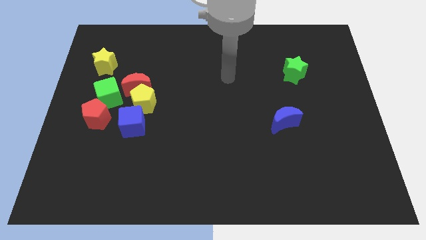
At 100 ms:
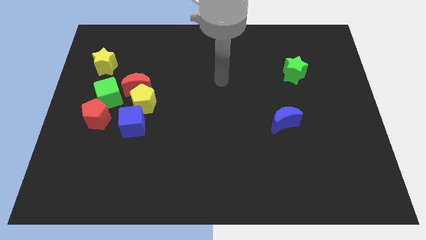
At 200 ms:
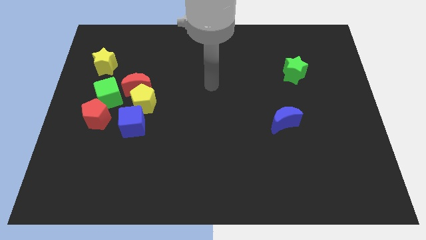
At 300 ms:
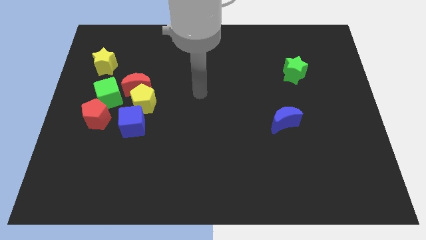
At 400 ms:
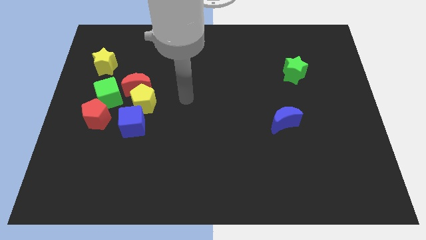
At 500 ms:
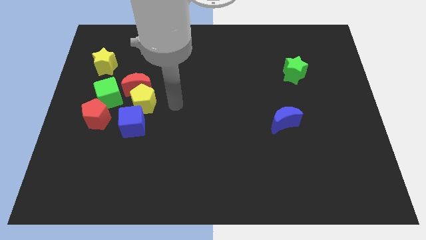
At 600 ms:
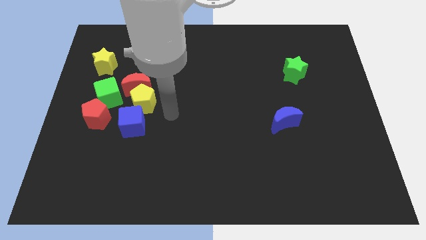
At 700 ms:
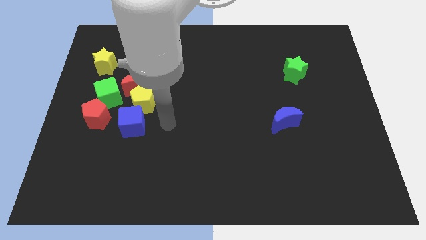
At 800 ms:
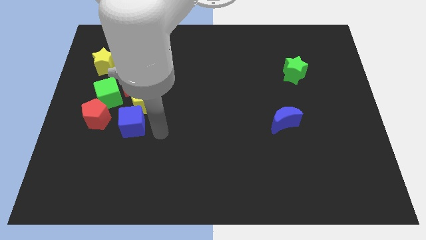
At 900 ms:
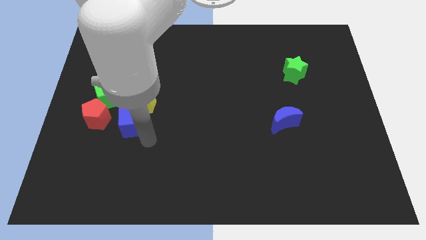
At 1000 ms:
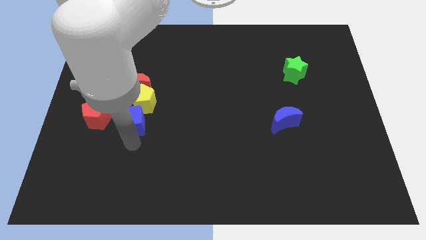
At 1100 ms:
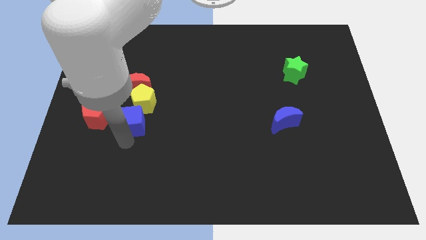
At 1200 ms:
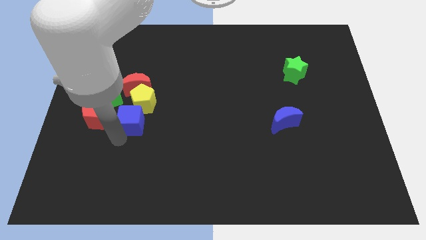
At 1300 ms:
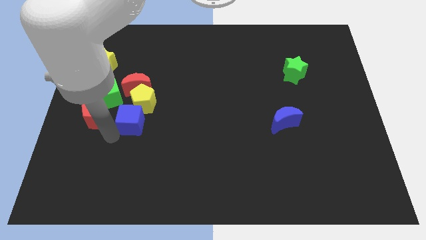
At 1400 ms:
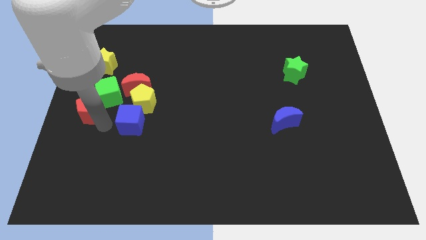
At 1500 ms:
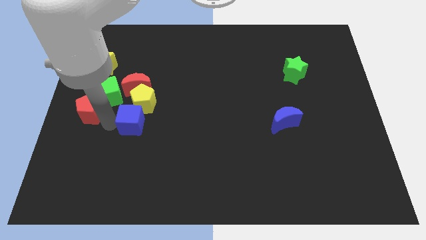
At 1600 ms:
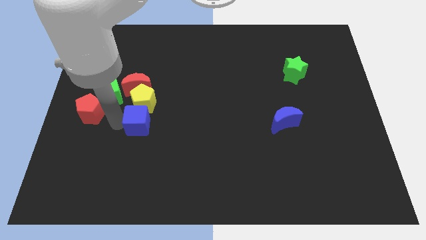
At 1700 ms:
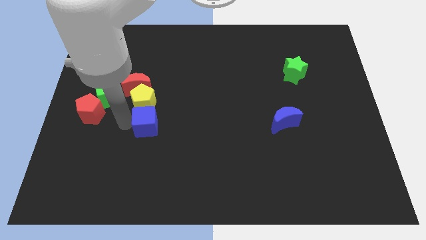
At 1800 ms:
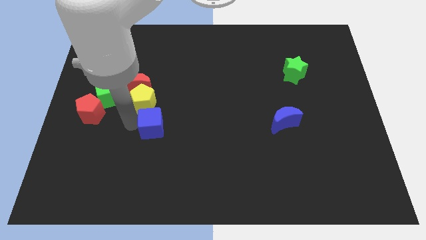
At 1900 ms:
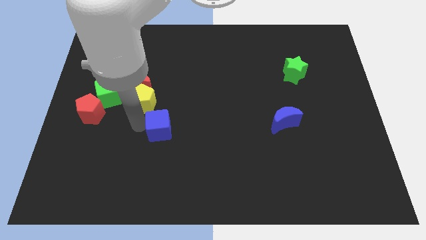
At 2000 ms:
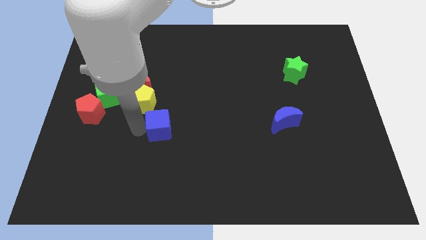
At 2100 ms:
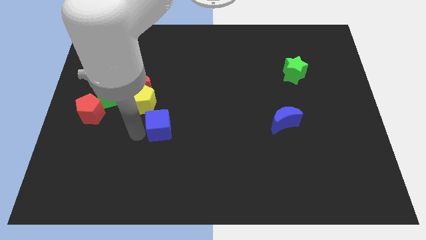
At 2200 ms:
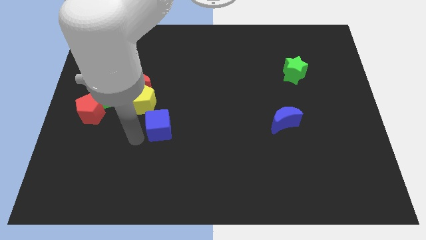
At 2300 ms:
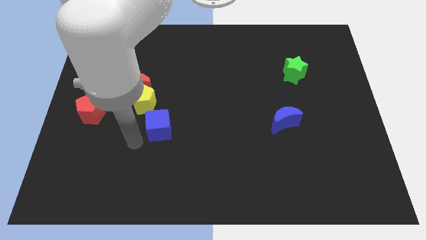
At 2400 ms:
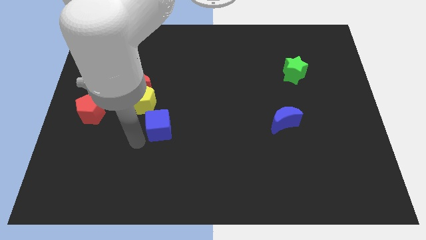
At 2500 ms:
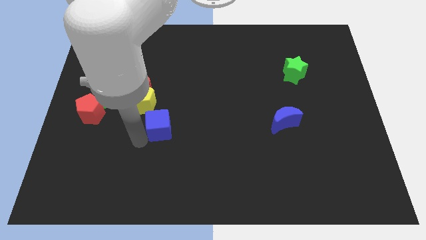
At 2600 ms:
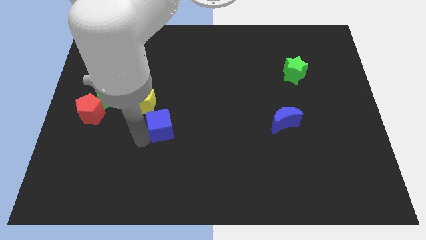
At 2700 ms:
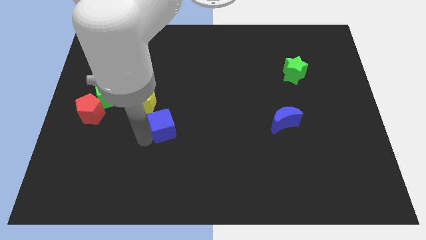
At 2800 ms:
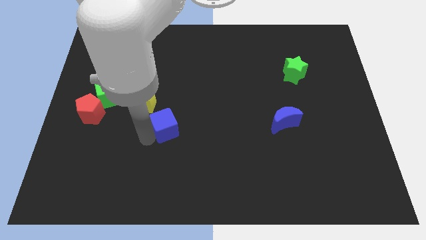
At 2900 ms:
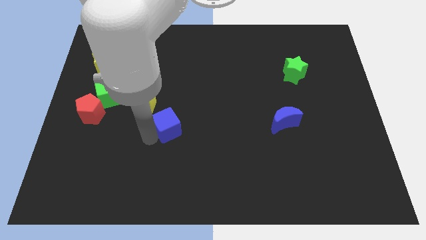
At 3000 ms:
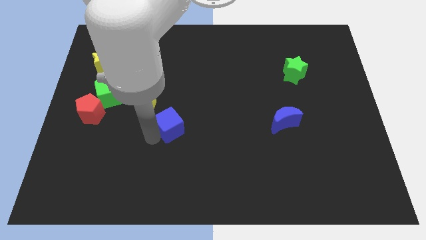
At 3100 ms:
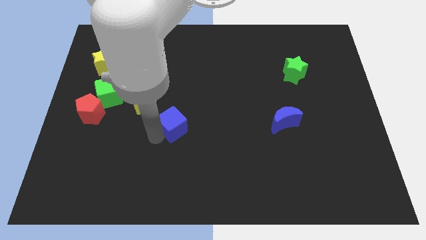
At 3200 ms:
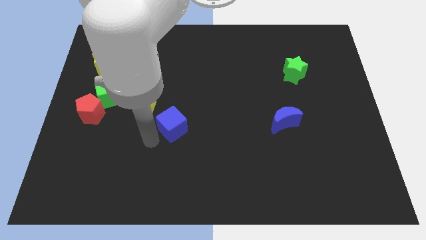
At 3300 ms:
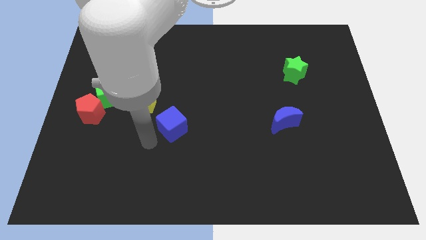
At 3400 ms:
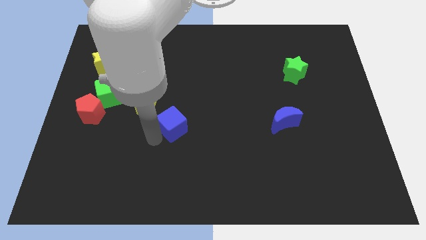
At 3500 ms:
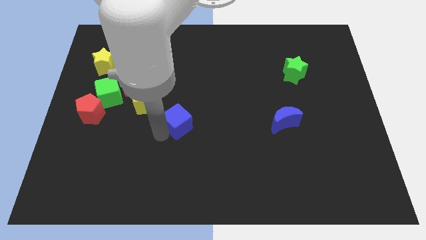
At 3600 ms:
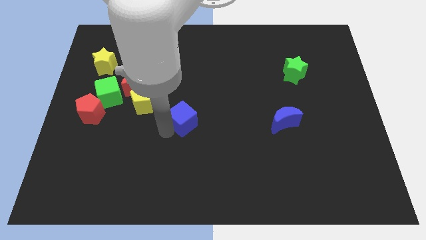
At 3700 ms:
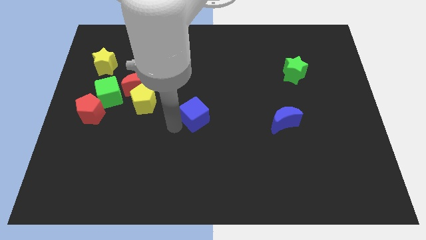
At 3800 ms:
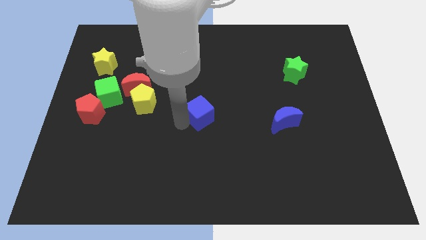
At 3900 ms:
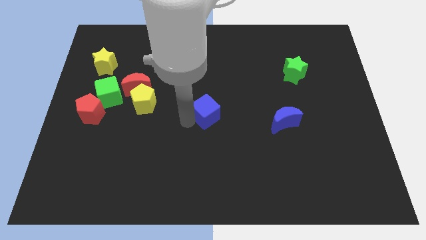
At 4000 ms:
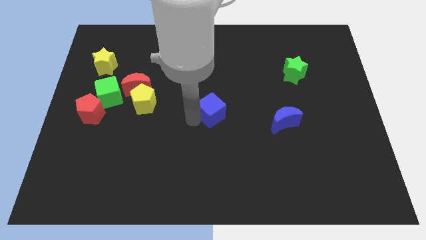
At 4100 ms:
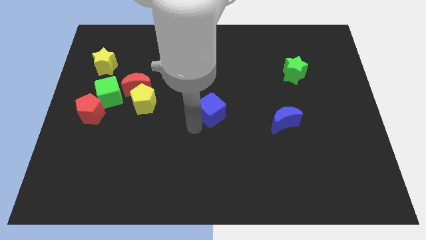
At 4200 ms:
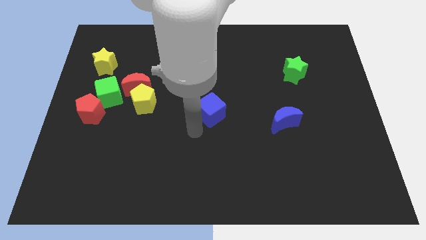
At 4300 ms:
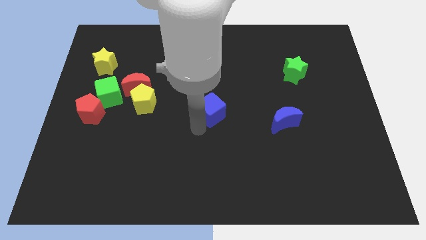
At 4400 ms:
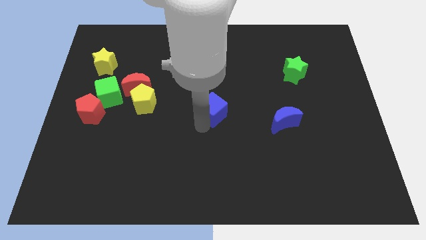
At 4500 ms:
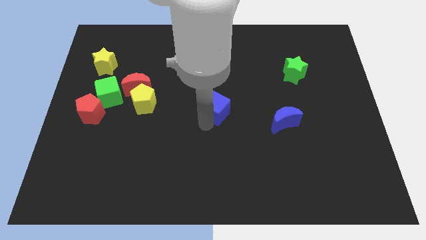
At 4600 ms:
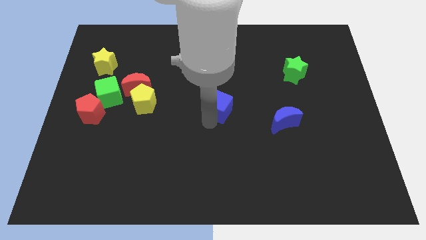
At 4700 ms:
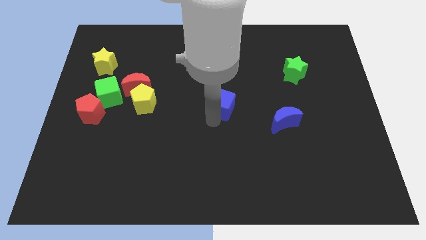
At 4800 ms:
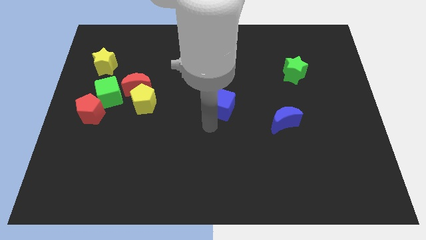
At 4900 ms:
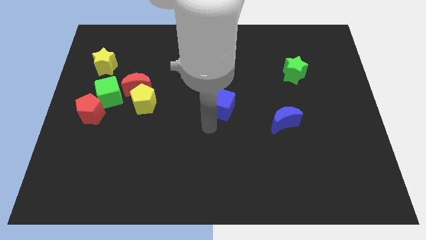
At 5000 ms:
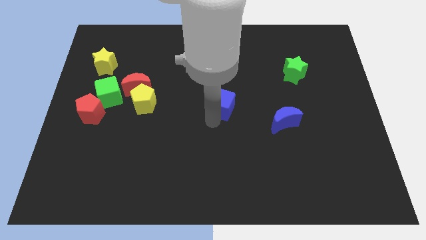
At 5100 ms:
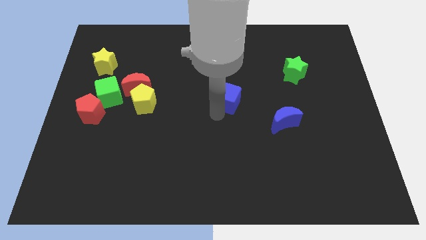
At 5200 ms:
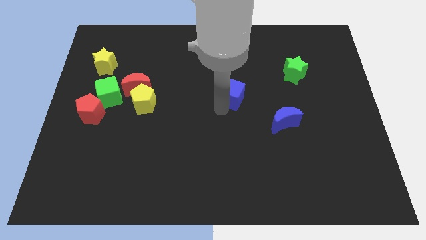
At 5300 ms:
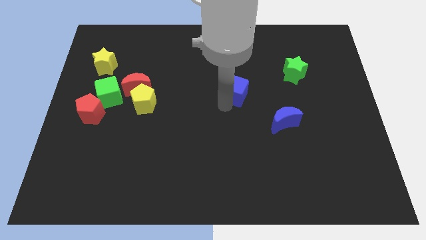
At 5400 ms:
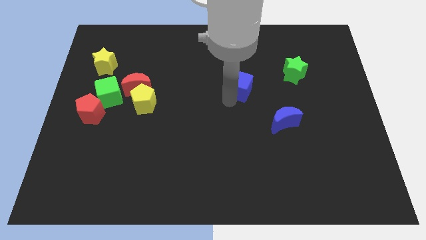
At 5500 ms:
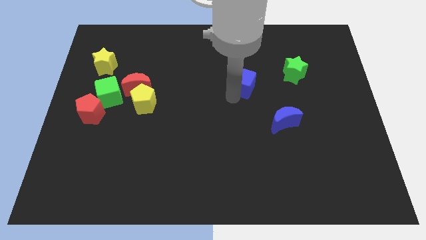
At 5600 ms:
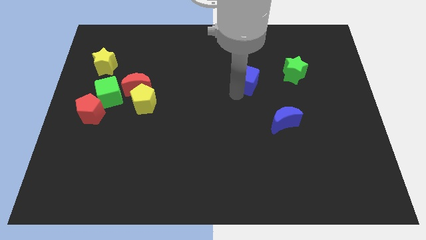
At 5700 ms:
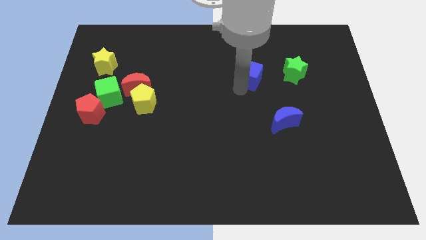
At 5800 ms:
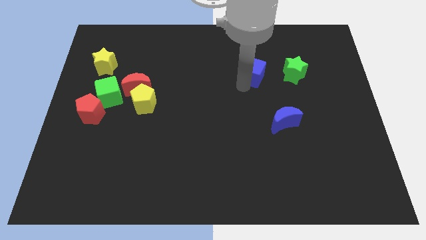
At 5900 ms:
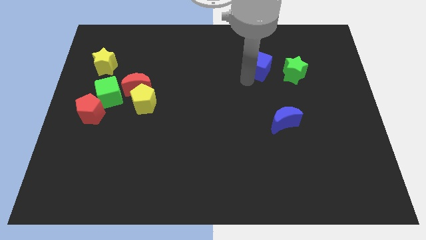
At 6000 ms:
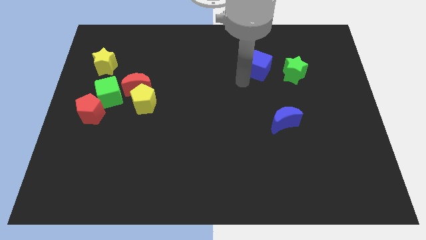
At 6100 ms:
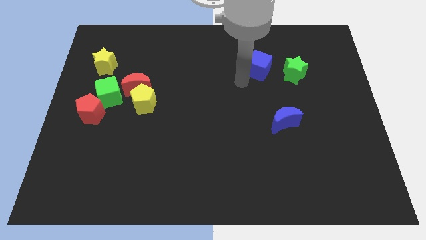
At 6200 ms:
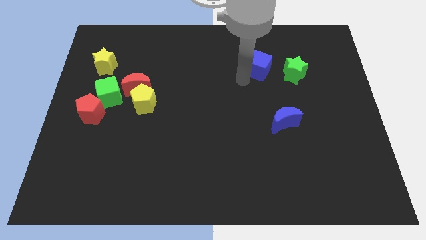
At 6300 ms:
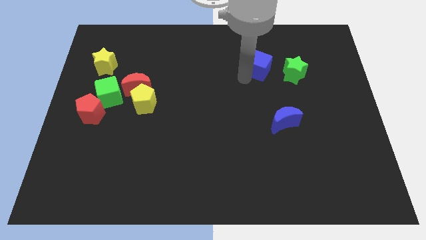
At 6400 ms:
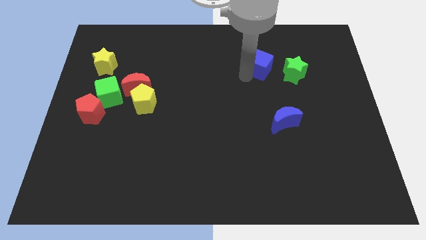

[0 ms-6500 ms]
move the blue cube to the top left of the green star
